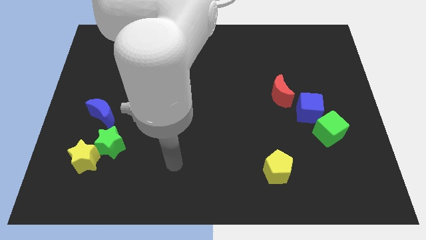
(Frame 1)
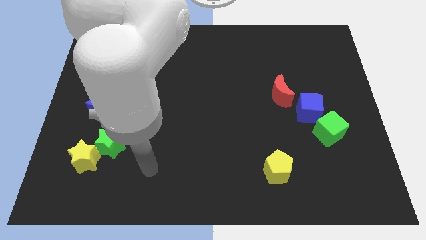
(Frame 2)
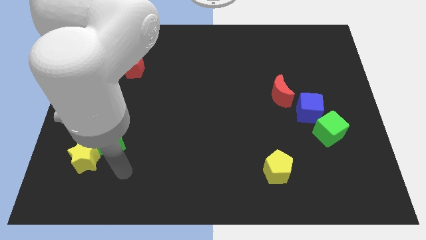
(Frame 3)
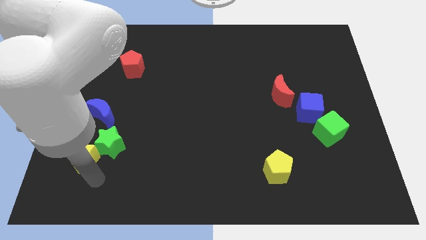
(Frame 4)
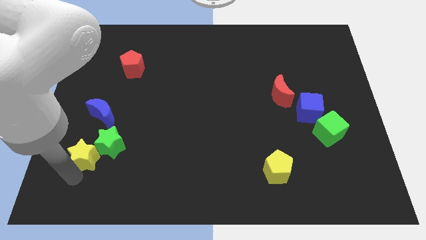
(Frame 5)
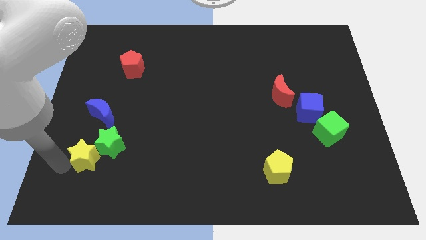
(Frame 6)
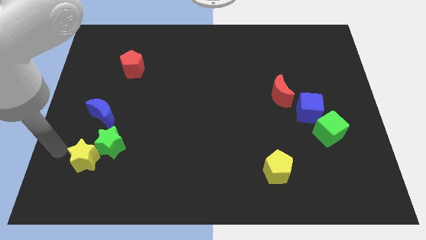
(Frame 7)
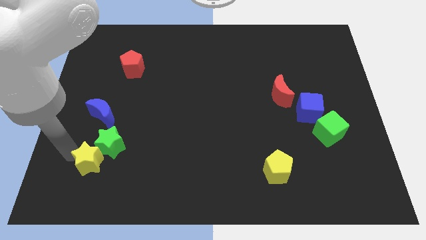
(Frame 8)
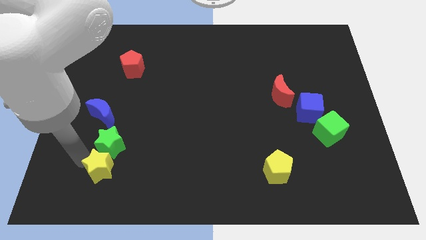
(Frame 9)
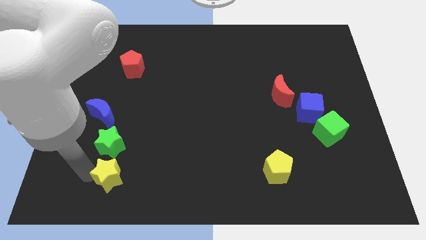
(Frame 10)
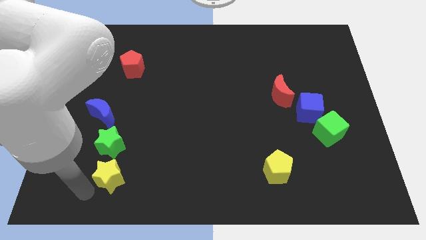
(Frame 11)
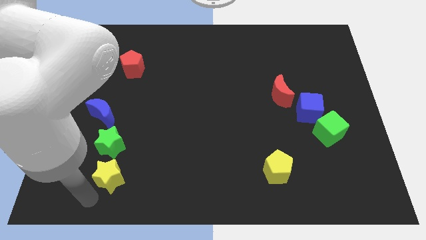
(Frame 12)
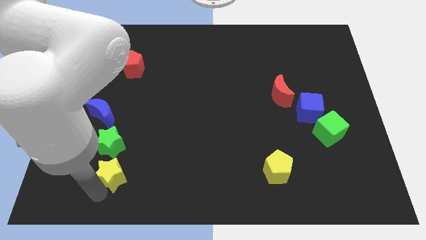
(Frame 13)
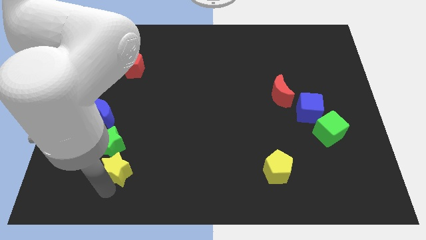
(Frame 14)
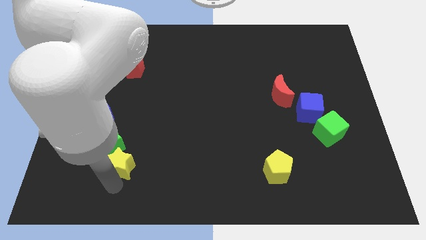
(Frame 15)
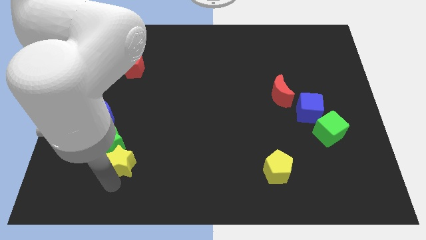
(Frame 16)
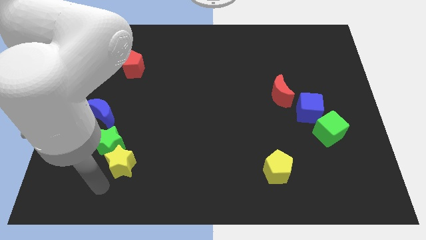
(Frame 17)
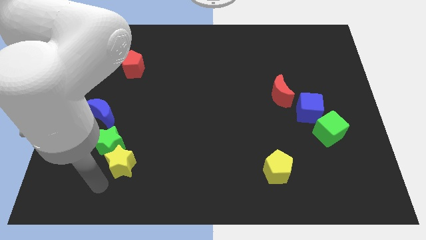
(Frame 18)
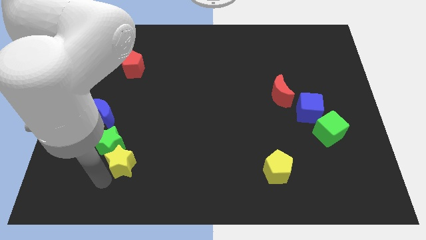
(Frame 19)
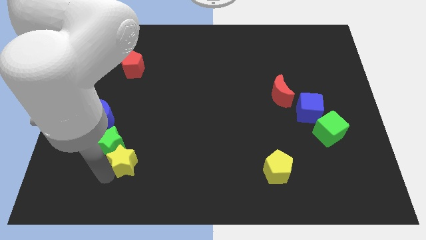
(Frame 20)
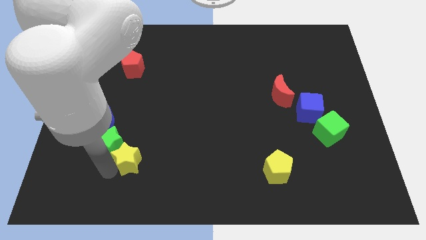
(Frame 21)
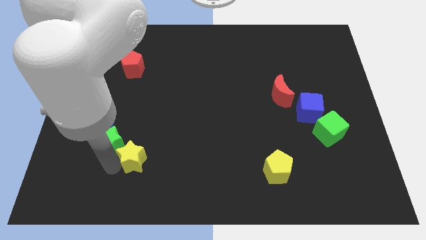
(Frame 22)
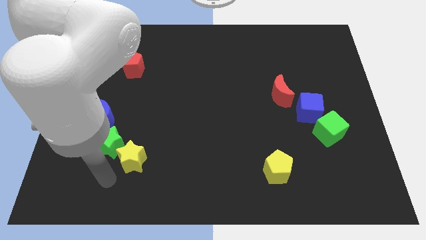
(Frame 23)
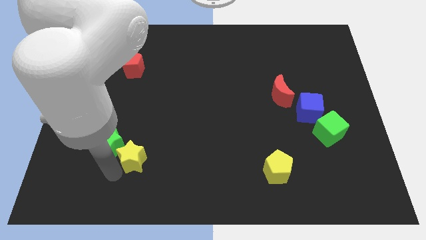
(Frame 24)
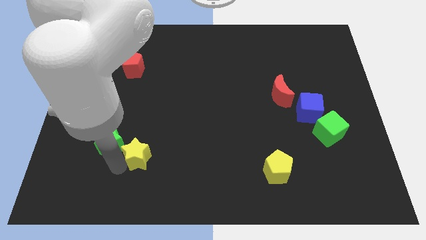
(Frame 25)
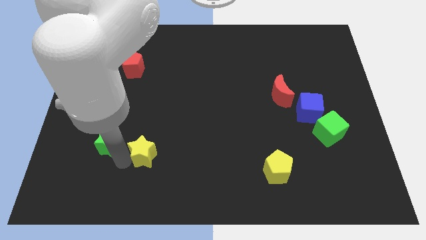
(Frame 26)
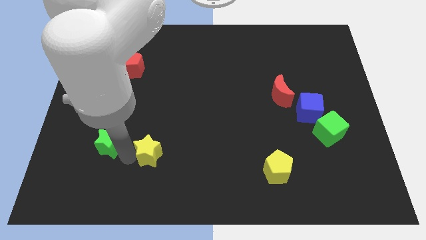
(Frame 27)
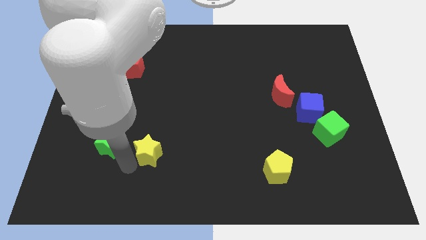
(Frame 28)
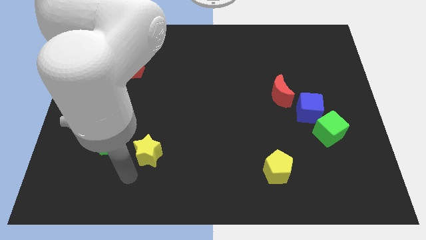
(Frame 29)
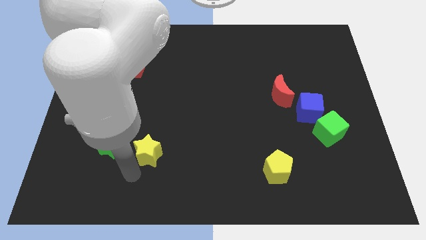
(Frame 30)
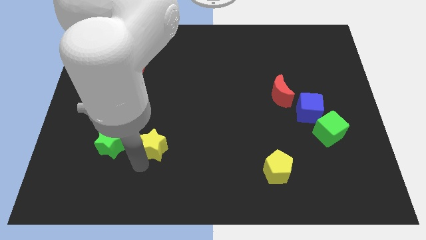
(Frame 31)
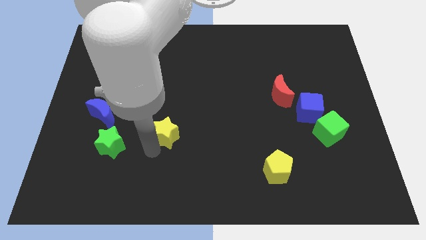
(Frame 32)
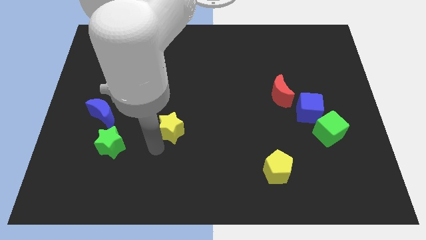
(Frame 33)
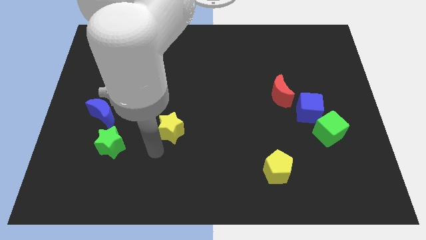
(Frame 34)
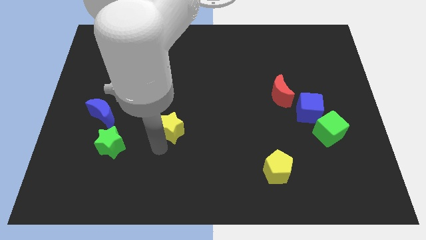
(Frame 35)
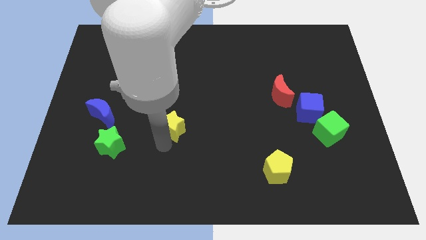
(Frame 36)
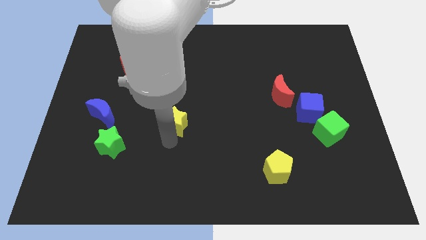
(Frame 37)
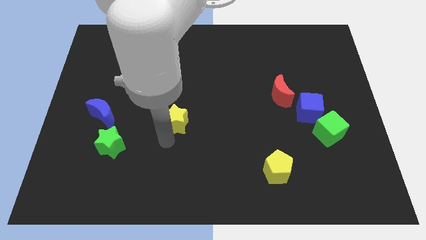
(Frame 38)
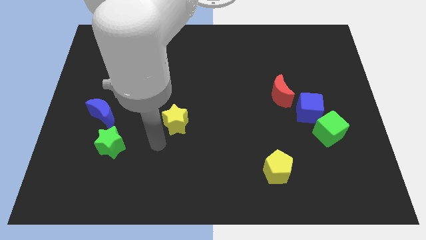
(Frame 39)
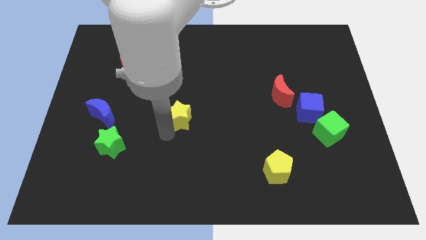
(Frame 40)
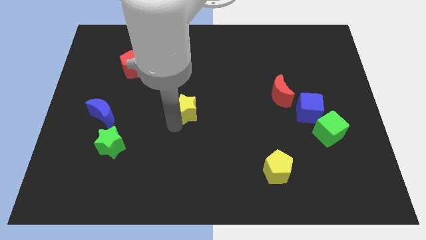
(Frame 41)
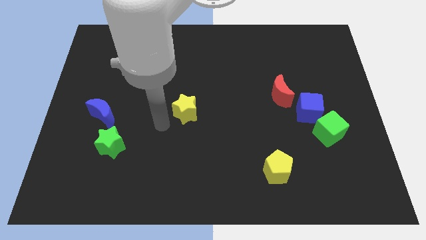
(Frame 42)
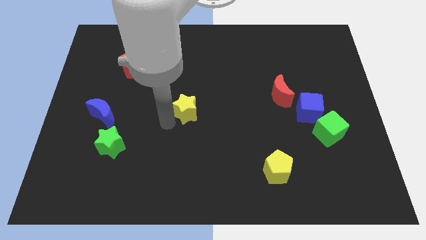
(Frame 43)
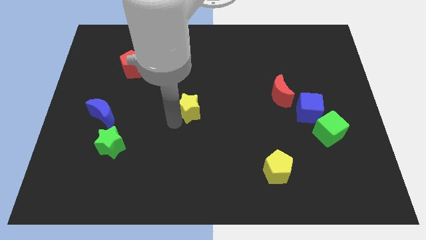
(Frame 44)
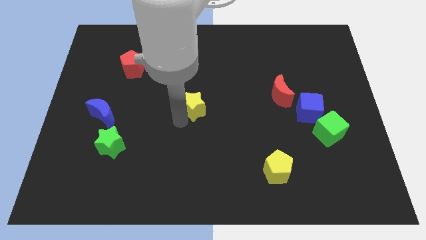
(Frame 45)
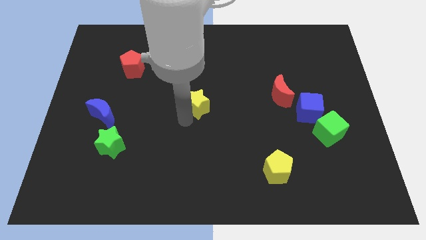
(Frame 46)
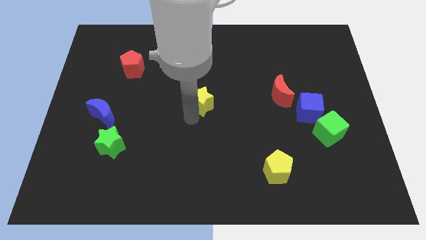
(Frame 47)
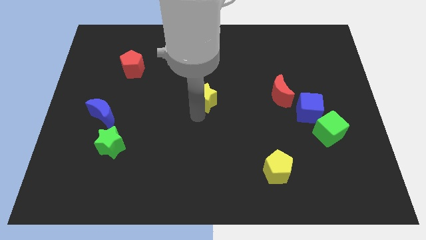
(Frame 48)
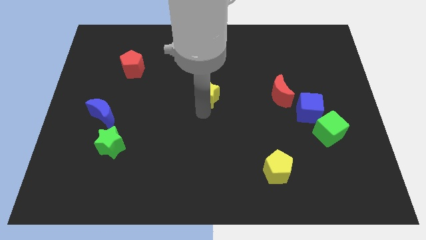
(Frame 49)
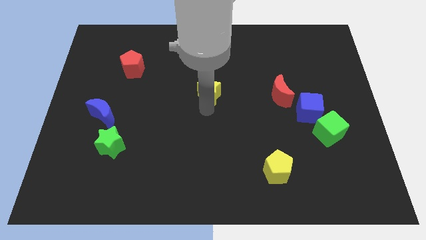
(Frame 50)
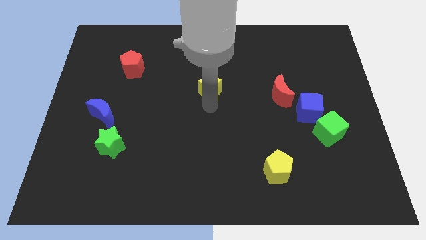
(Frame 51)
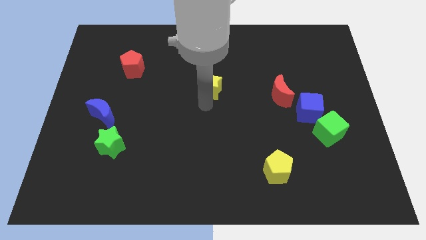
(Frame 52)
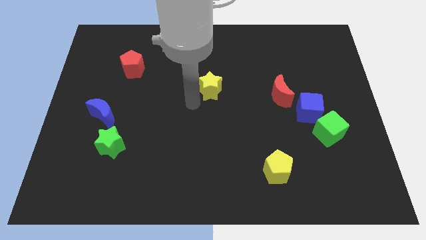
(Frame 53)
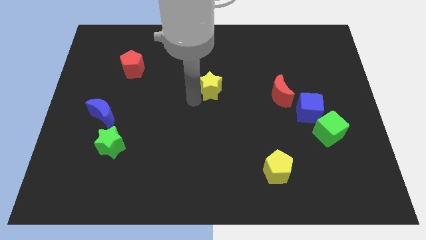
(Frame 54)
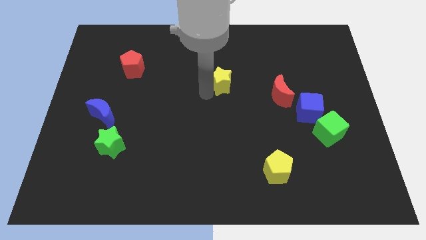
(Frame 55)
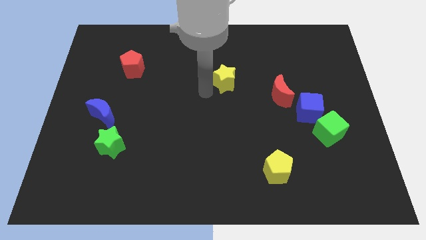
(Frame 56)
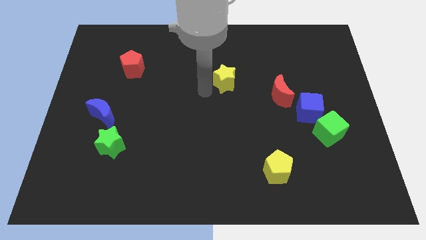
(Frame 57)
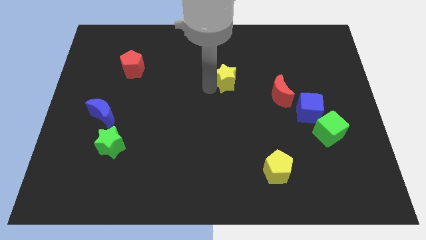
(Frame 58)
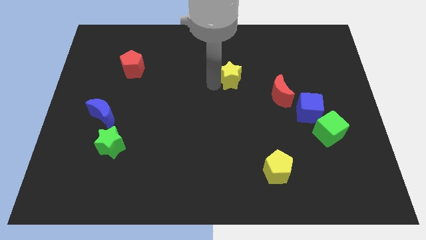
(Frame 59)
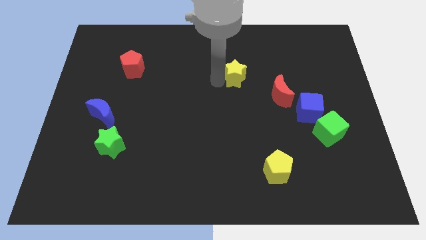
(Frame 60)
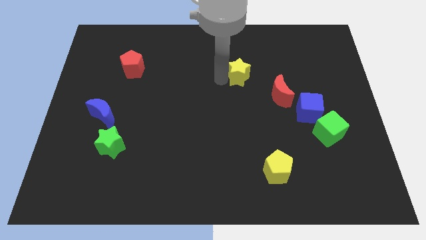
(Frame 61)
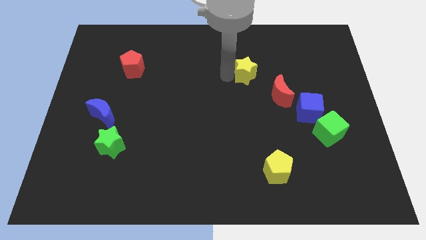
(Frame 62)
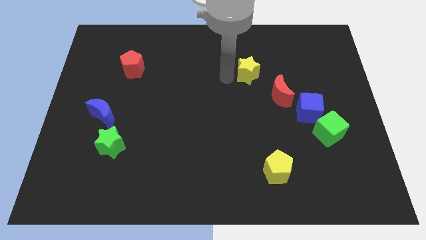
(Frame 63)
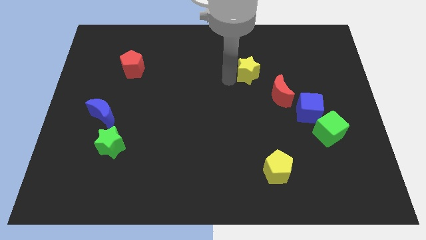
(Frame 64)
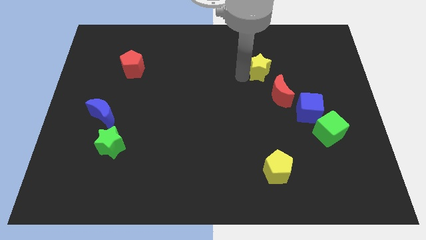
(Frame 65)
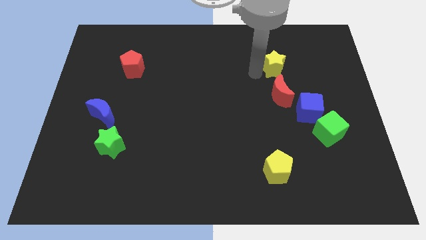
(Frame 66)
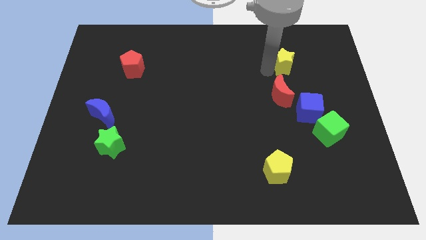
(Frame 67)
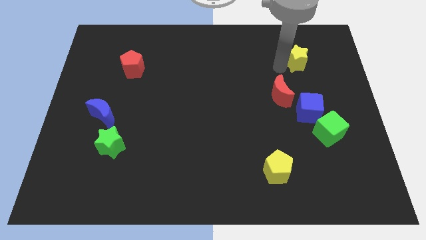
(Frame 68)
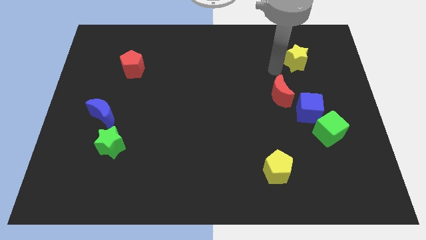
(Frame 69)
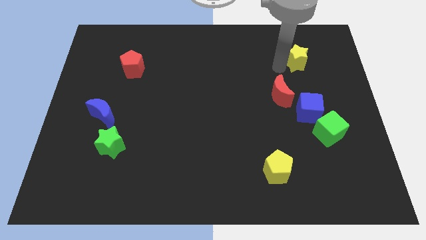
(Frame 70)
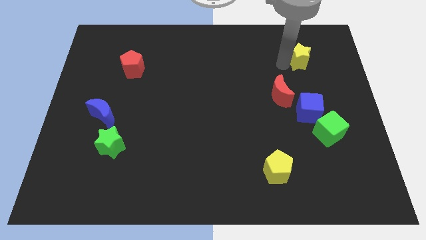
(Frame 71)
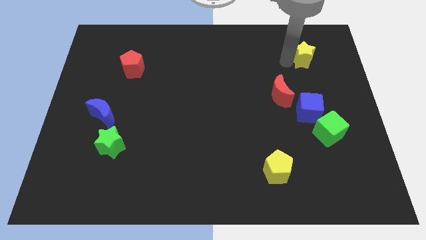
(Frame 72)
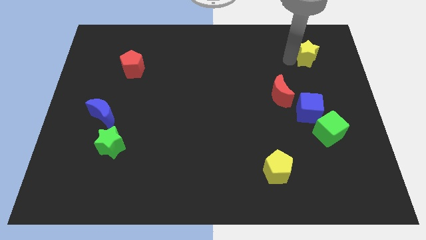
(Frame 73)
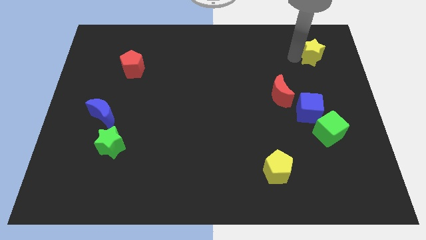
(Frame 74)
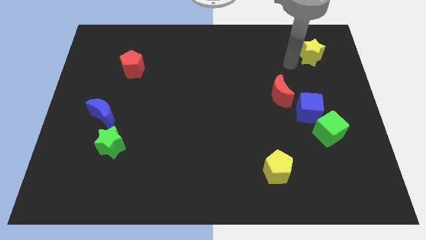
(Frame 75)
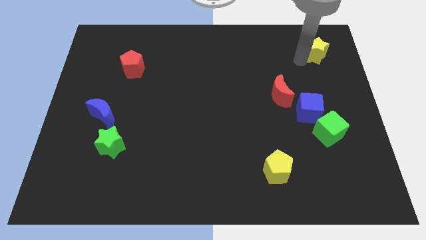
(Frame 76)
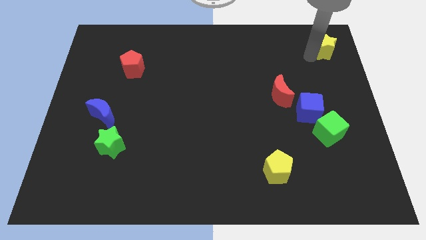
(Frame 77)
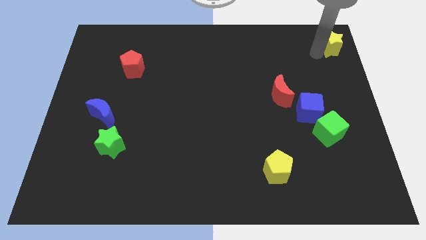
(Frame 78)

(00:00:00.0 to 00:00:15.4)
put the yellow star to the top right of the board
